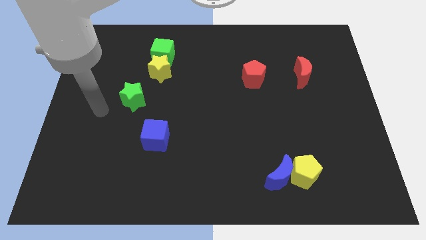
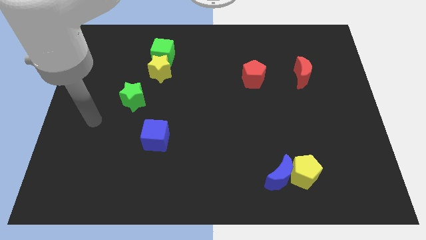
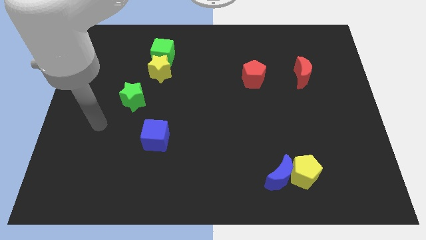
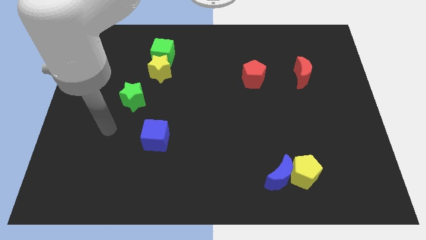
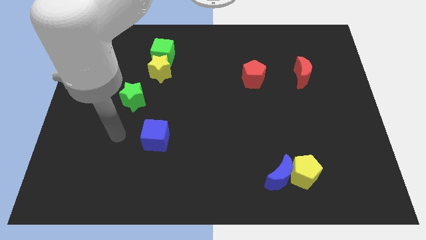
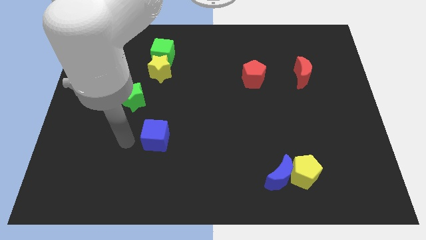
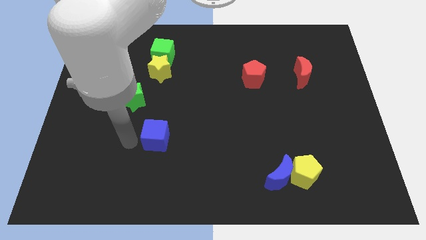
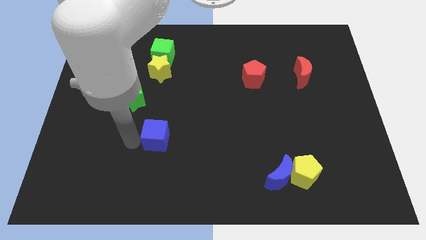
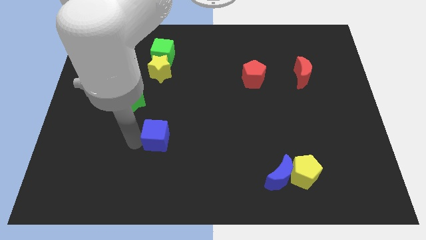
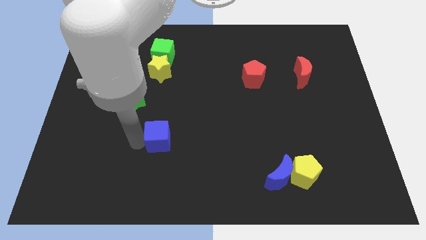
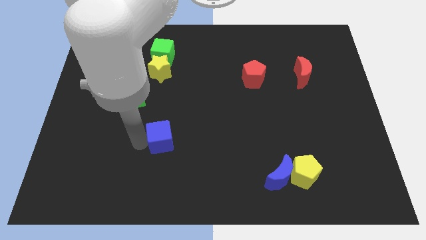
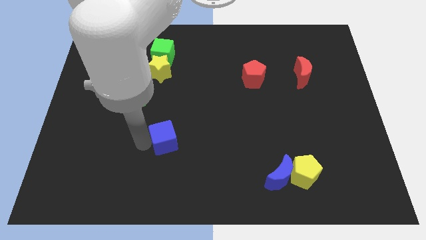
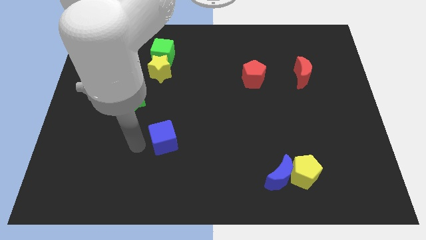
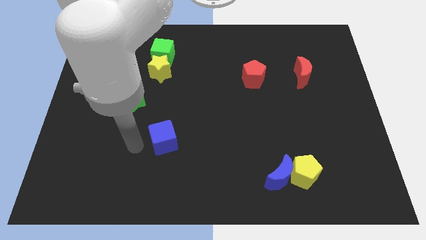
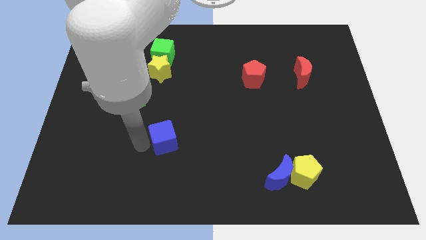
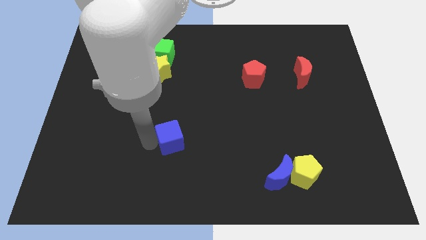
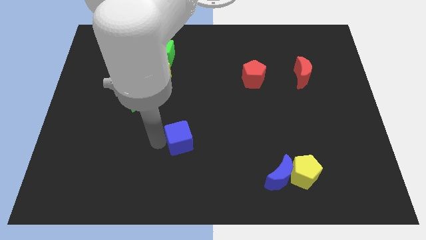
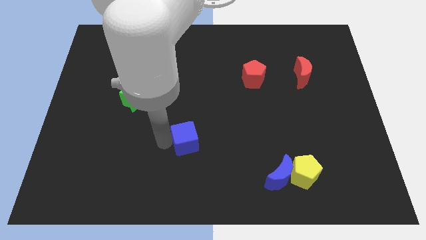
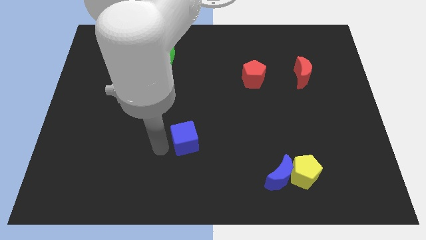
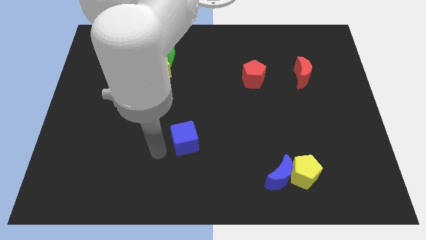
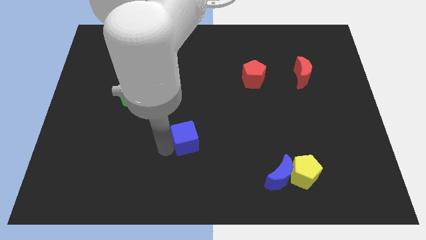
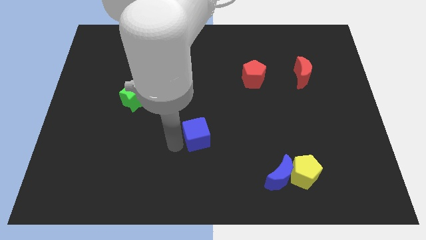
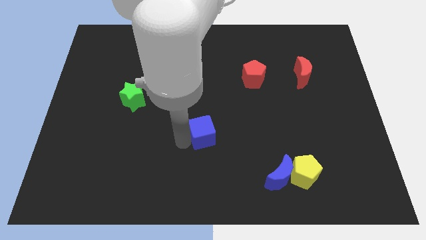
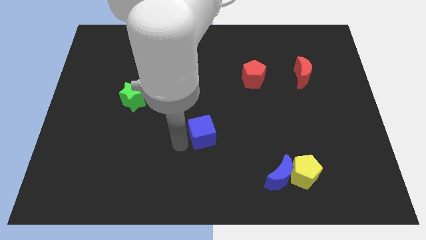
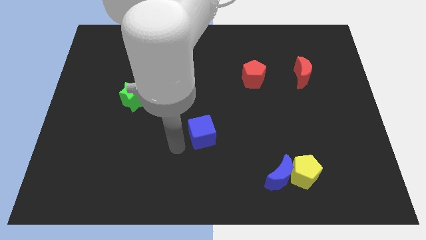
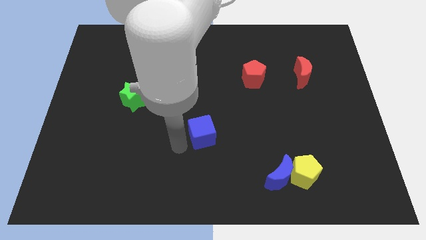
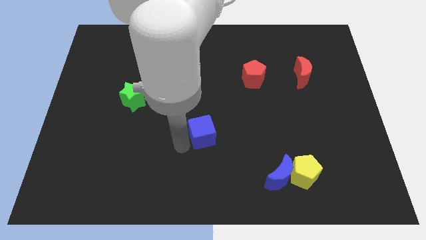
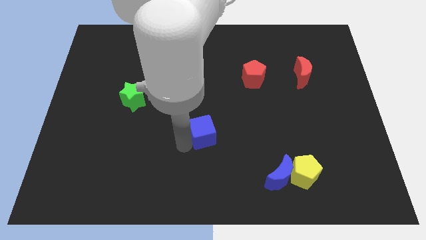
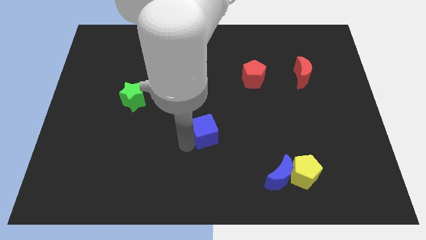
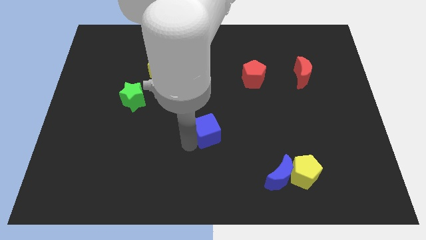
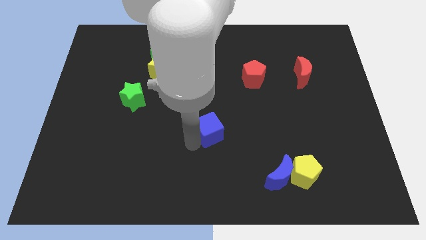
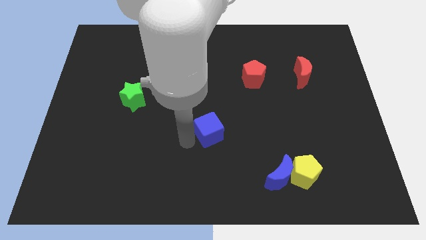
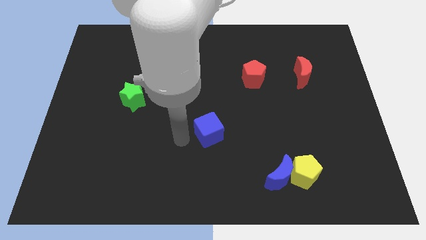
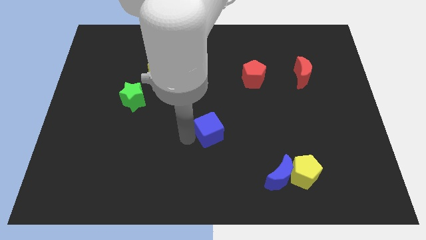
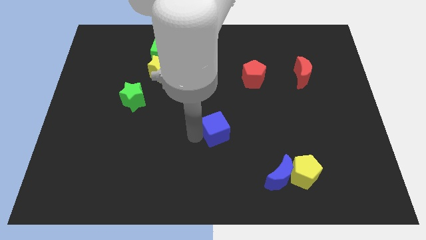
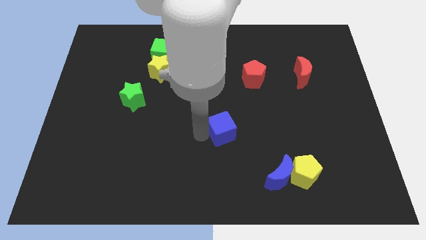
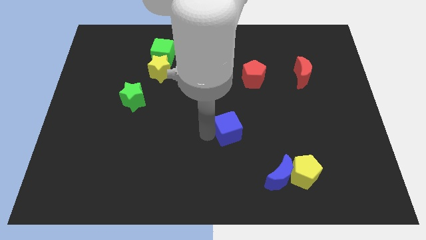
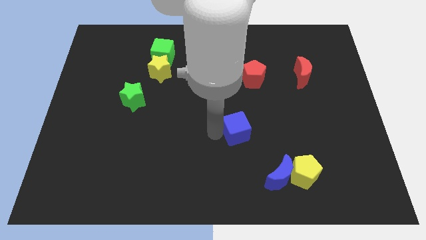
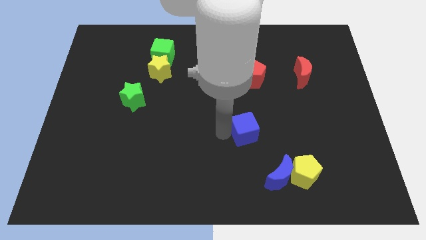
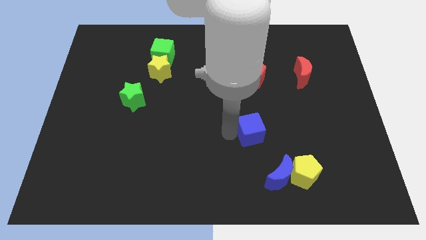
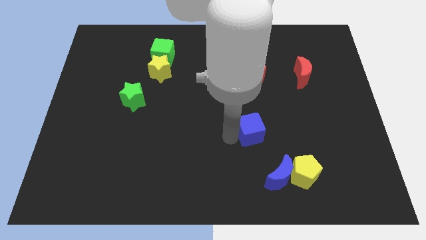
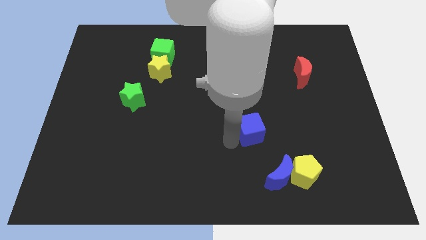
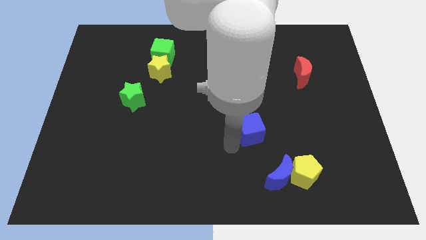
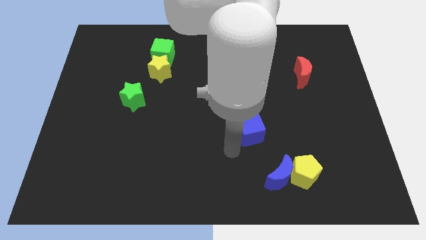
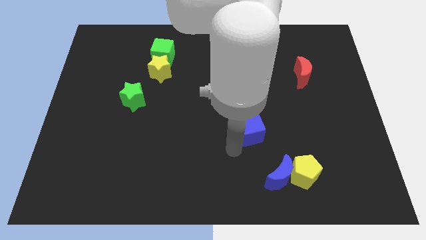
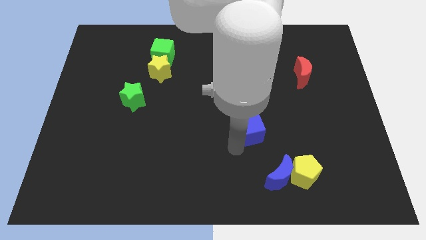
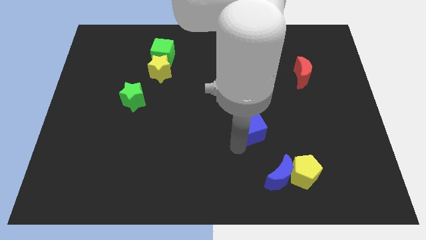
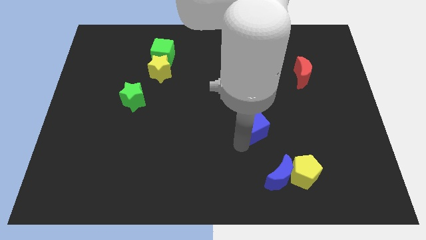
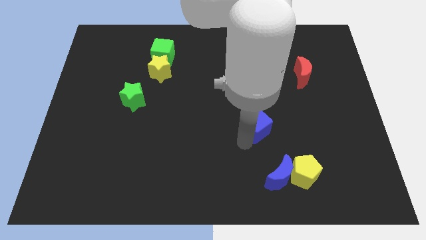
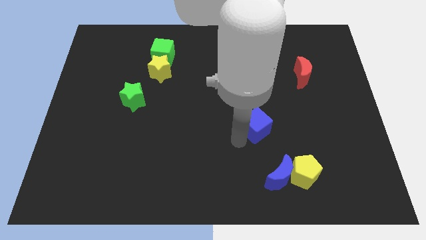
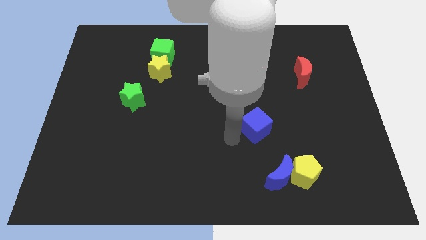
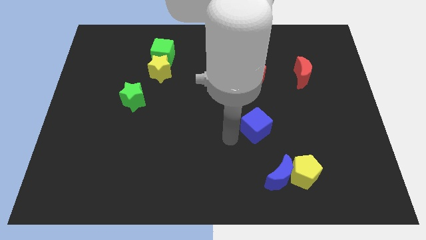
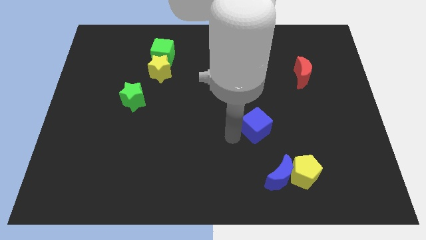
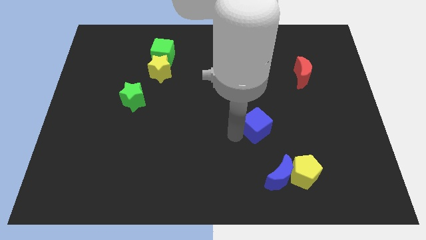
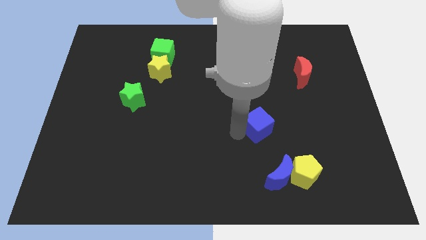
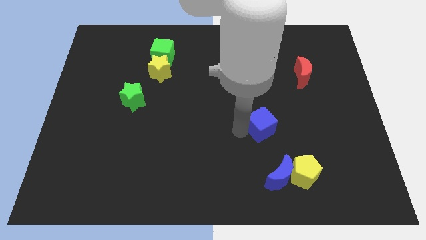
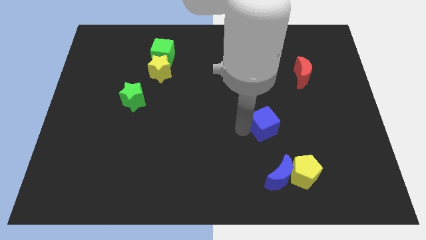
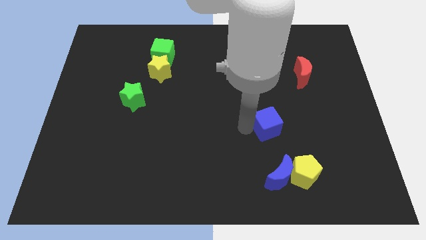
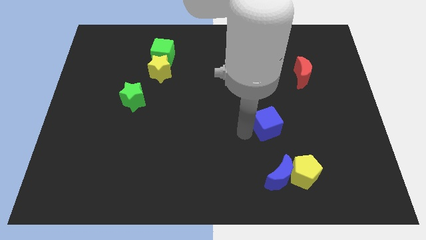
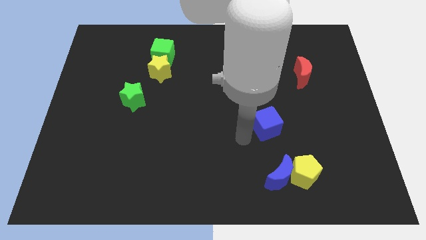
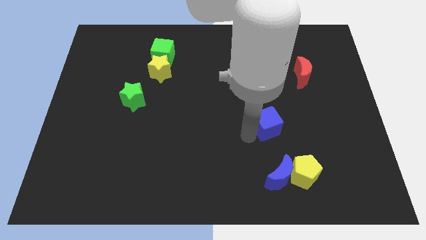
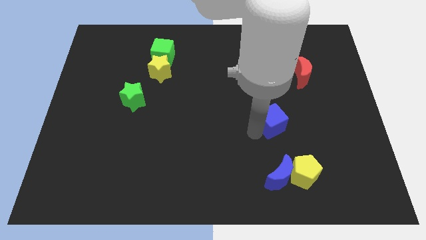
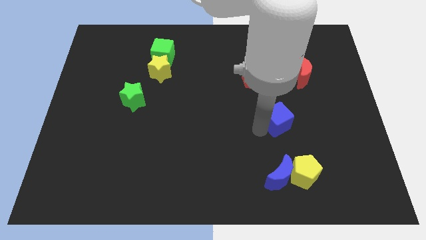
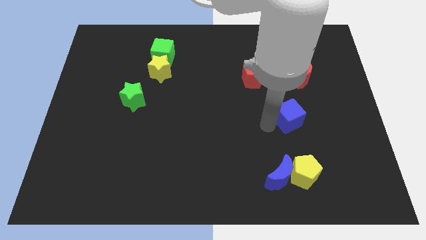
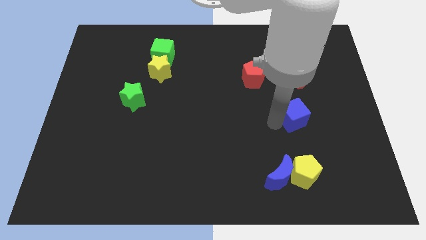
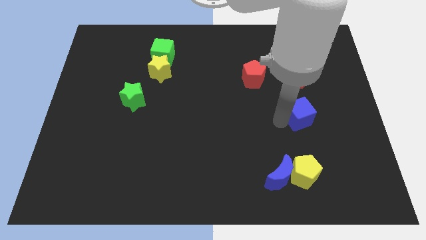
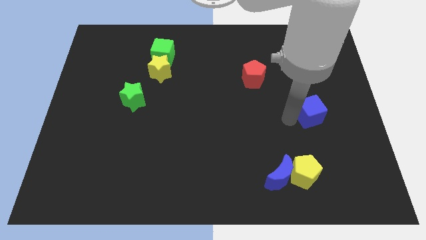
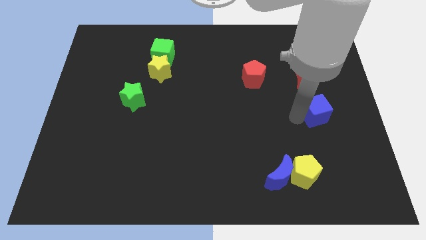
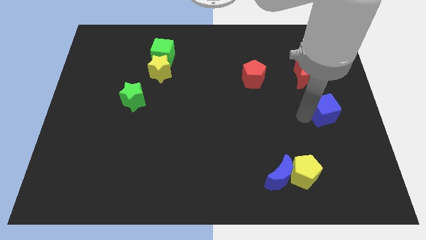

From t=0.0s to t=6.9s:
slide the blue cube to the right side
